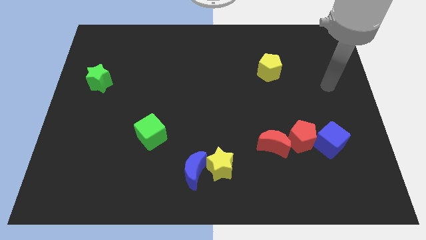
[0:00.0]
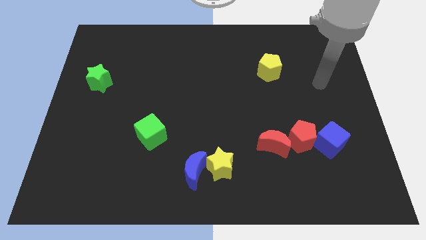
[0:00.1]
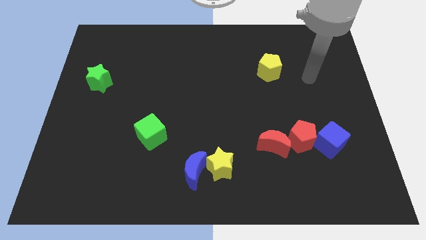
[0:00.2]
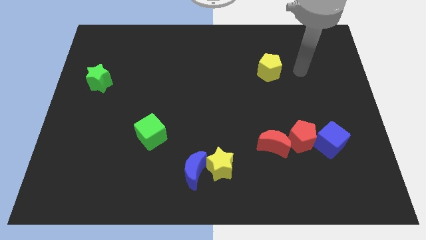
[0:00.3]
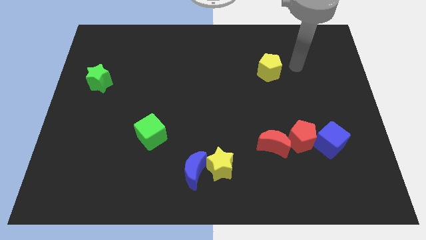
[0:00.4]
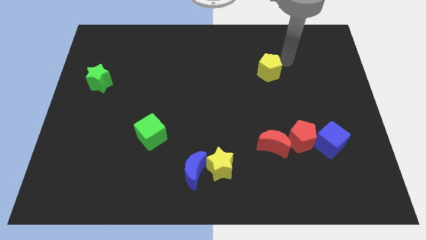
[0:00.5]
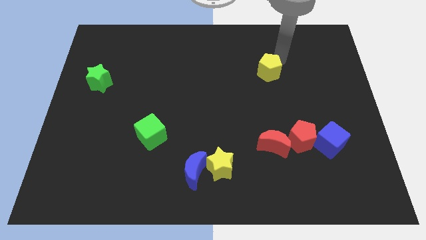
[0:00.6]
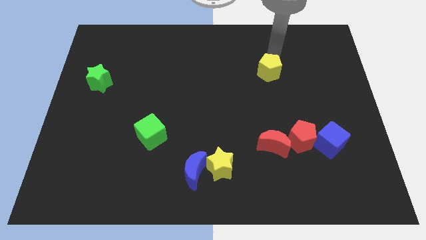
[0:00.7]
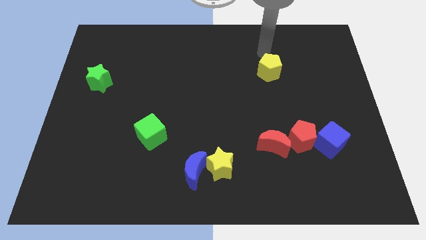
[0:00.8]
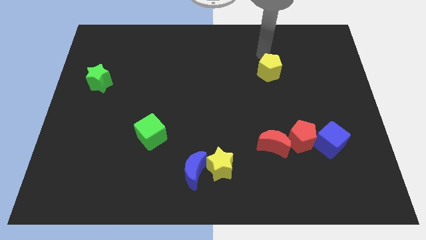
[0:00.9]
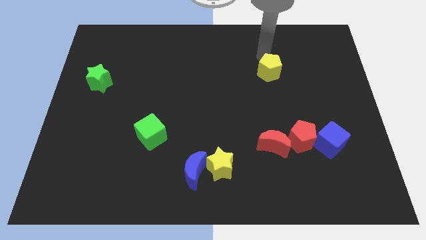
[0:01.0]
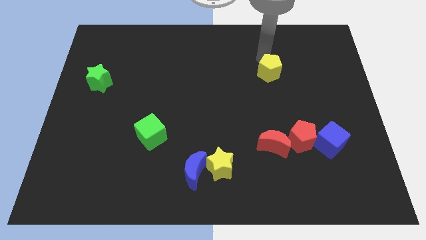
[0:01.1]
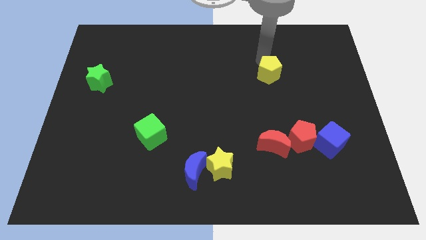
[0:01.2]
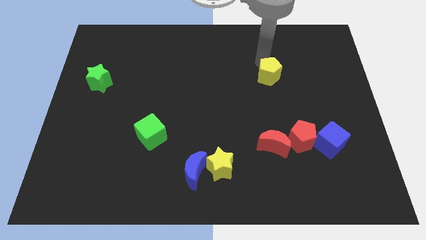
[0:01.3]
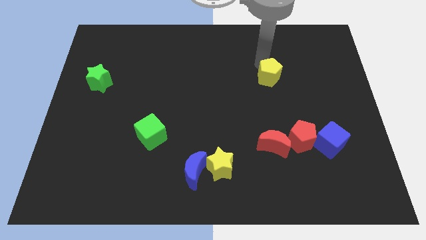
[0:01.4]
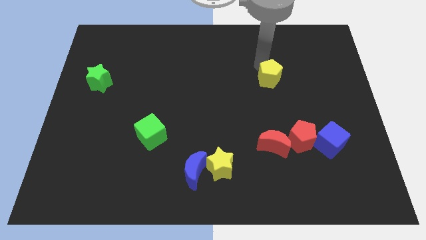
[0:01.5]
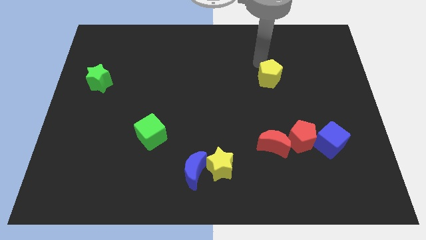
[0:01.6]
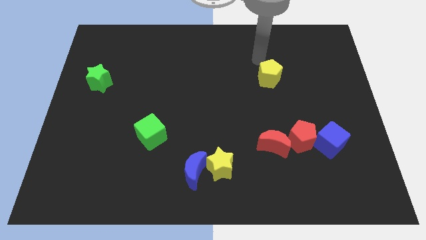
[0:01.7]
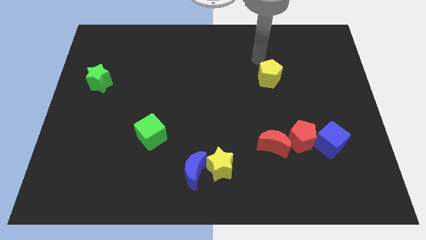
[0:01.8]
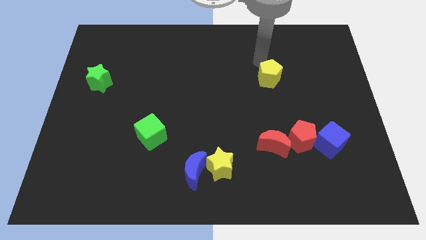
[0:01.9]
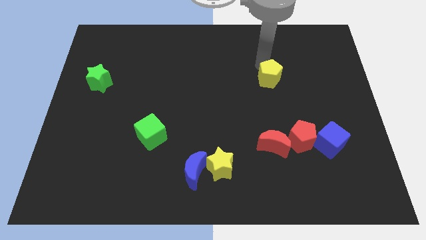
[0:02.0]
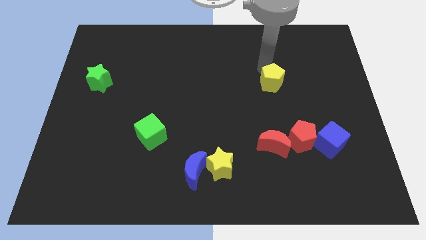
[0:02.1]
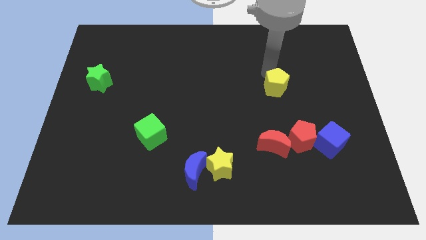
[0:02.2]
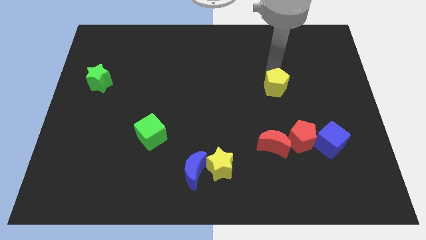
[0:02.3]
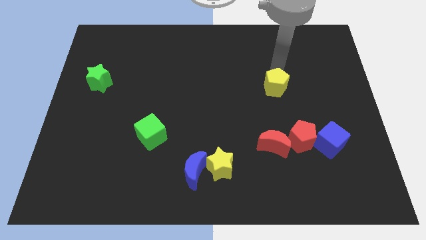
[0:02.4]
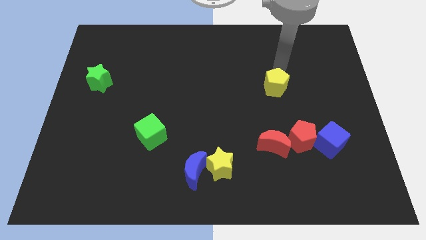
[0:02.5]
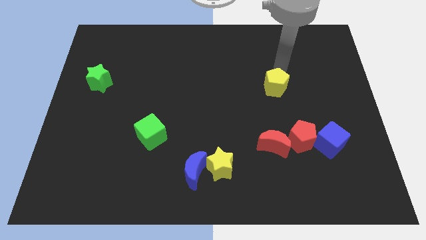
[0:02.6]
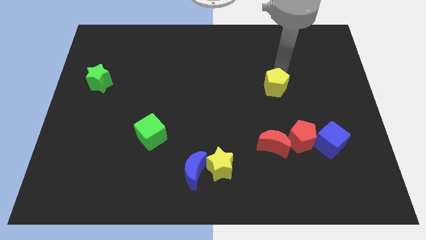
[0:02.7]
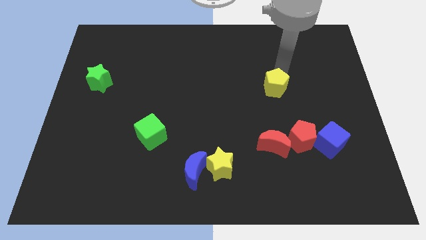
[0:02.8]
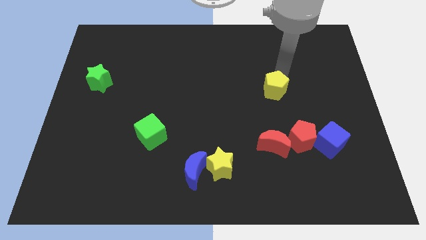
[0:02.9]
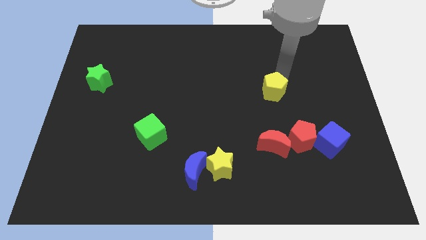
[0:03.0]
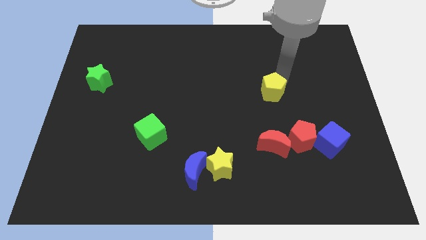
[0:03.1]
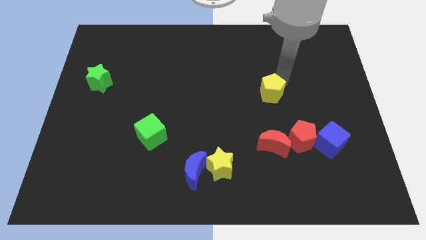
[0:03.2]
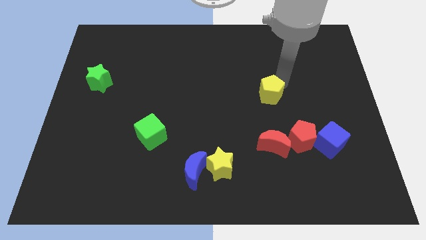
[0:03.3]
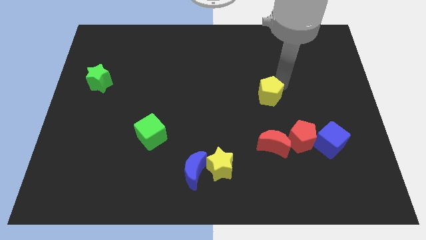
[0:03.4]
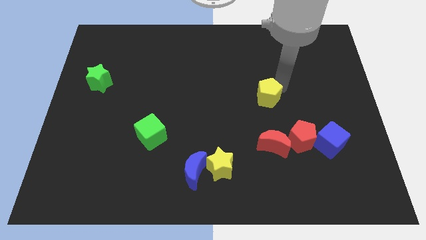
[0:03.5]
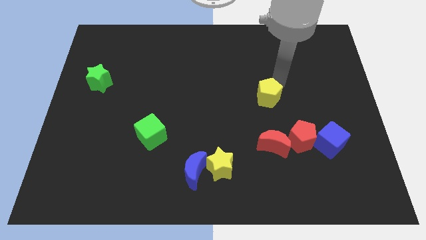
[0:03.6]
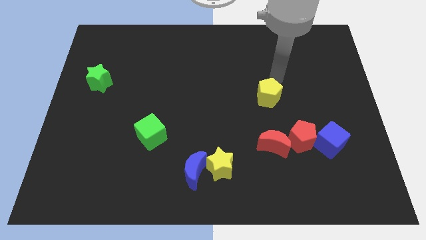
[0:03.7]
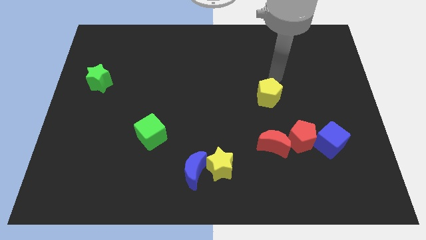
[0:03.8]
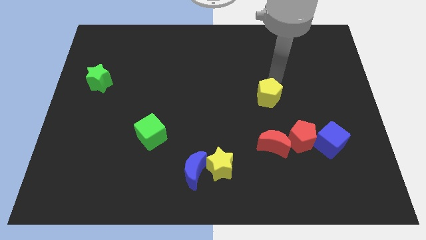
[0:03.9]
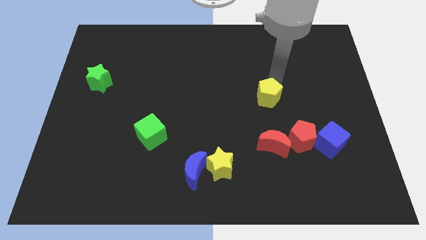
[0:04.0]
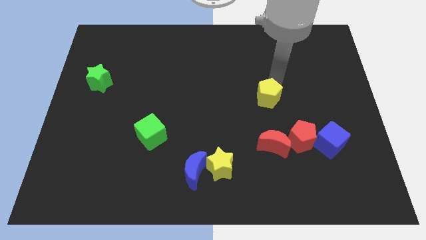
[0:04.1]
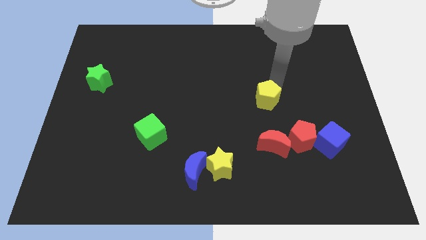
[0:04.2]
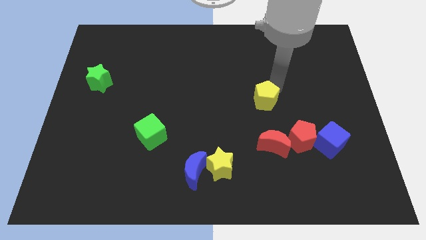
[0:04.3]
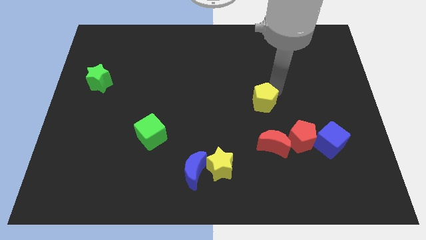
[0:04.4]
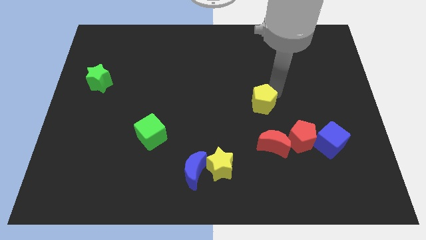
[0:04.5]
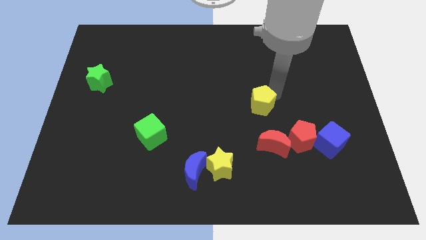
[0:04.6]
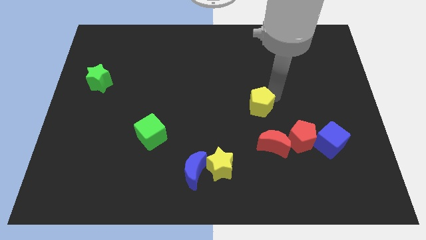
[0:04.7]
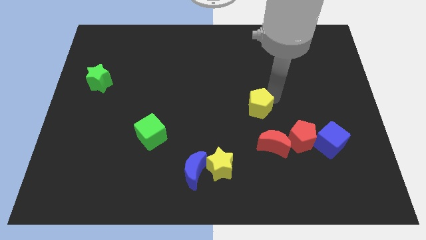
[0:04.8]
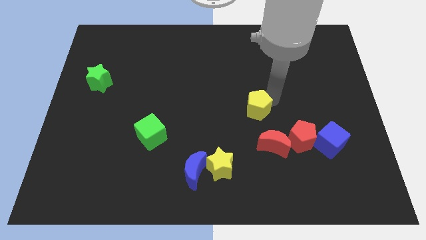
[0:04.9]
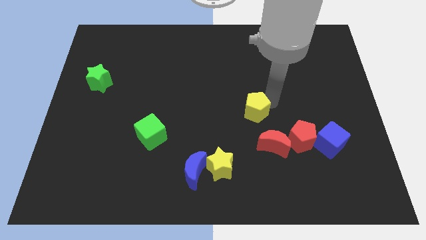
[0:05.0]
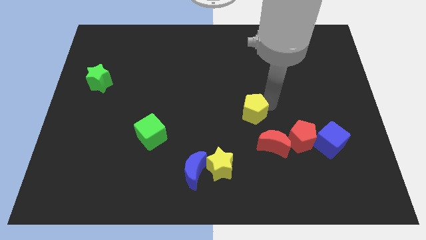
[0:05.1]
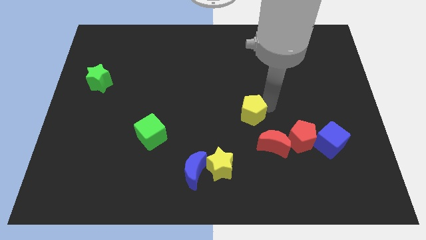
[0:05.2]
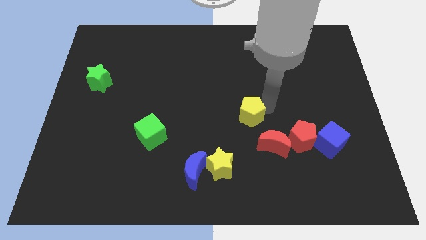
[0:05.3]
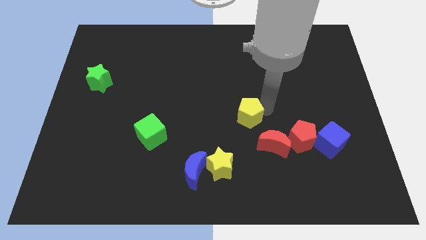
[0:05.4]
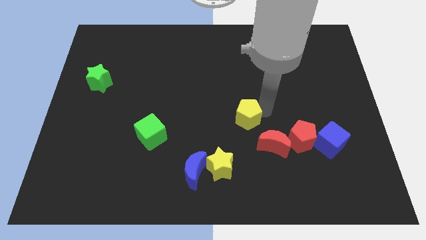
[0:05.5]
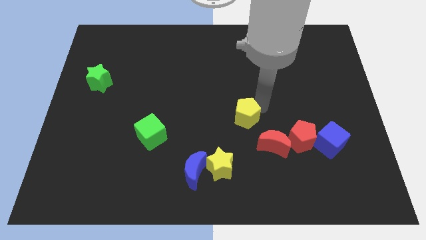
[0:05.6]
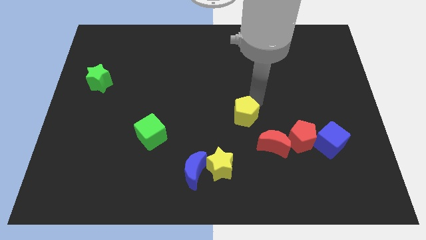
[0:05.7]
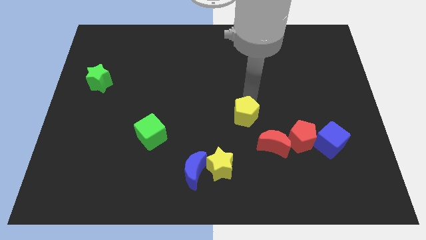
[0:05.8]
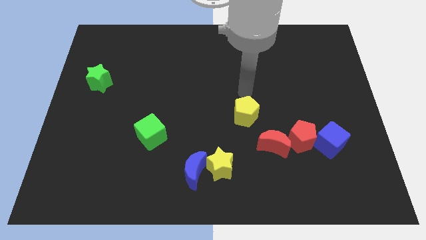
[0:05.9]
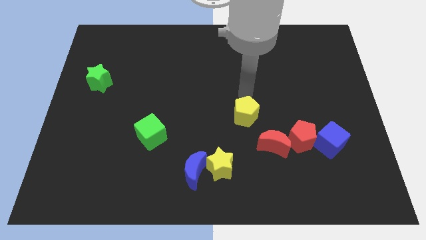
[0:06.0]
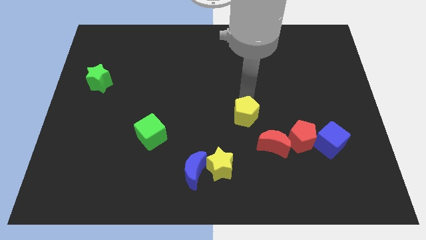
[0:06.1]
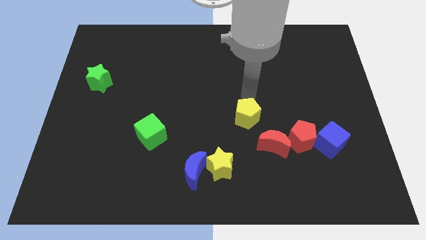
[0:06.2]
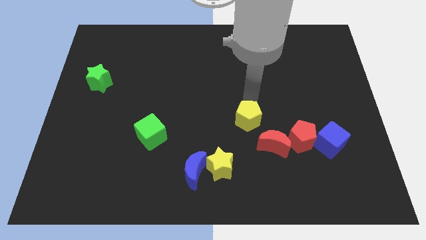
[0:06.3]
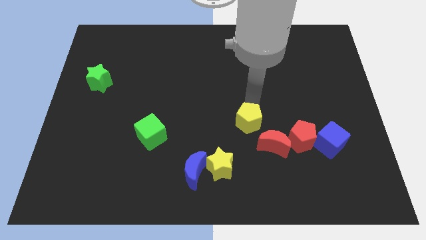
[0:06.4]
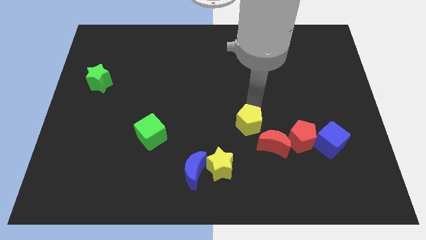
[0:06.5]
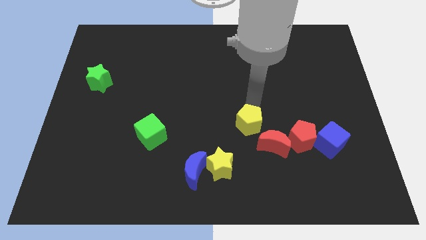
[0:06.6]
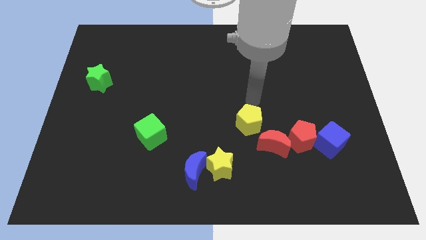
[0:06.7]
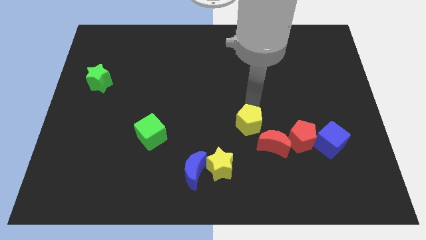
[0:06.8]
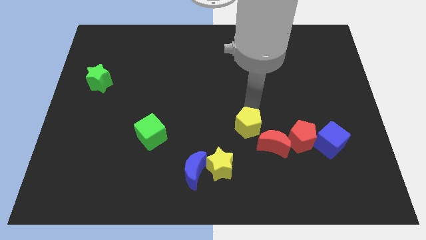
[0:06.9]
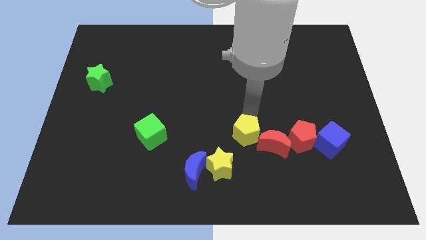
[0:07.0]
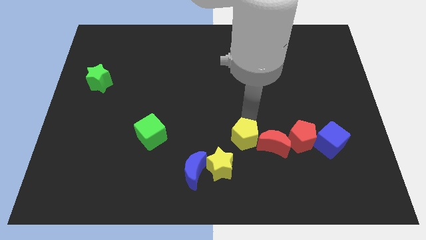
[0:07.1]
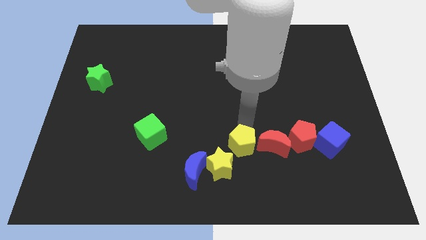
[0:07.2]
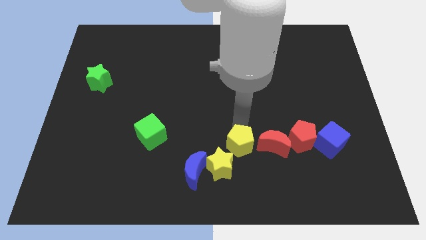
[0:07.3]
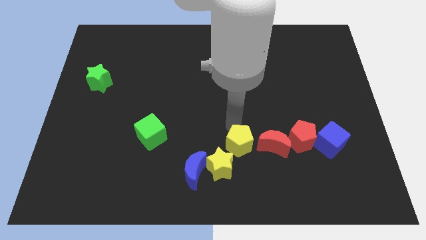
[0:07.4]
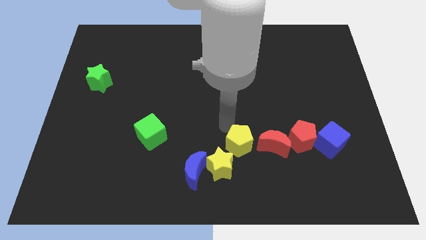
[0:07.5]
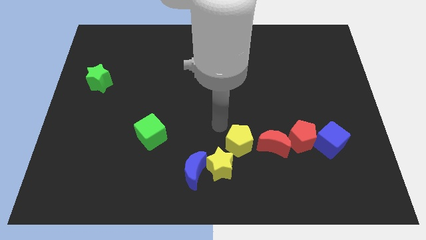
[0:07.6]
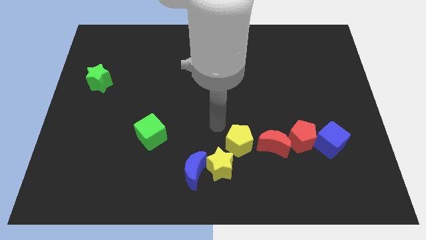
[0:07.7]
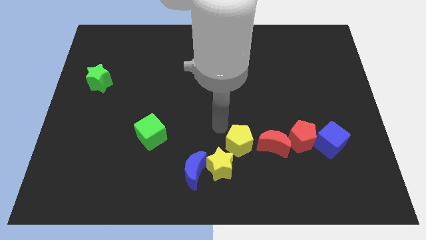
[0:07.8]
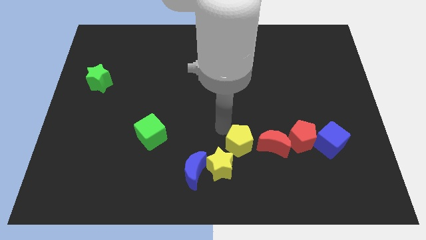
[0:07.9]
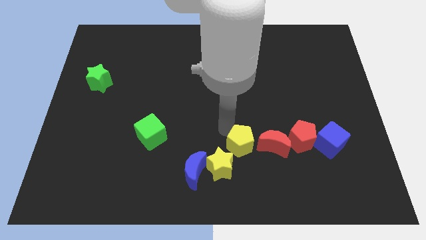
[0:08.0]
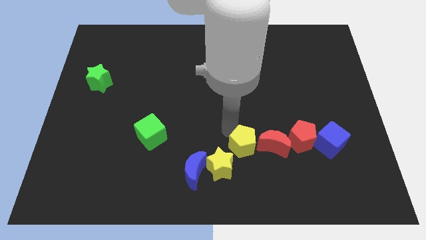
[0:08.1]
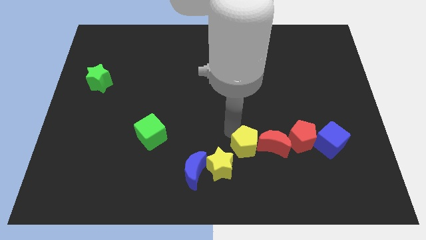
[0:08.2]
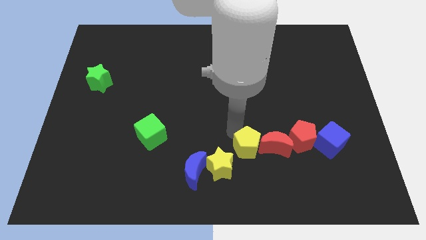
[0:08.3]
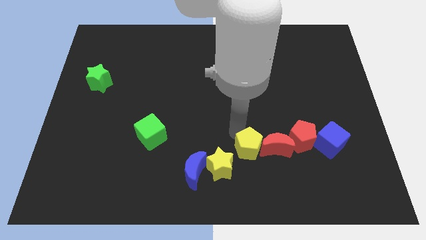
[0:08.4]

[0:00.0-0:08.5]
move the yellow pentagon to the right of the yellow star
